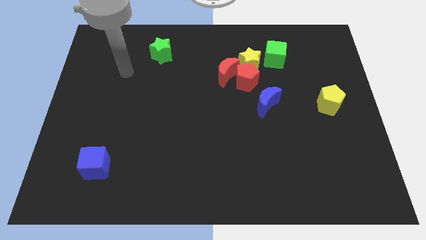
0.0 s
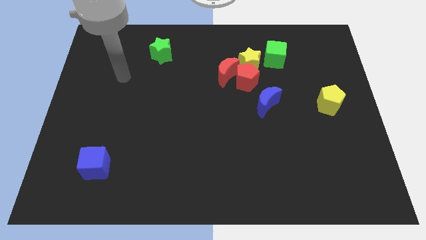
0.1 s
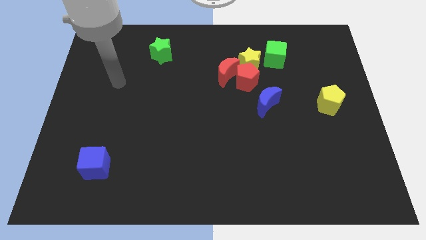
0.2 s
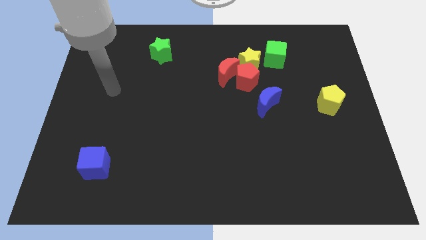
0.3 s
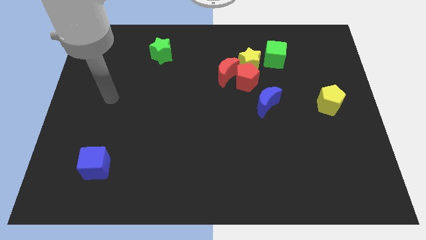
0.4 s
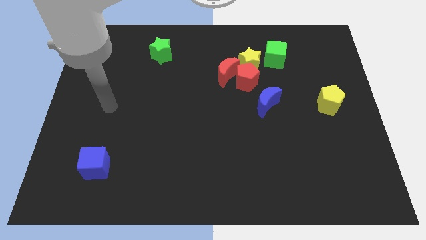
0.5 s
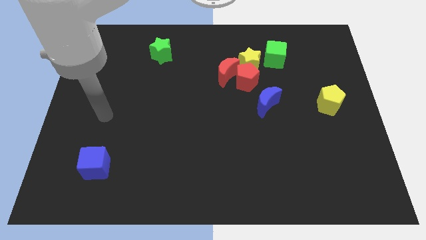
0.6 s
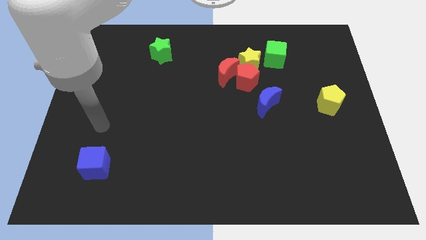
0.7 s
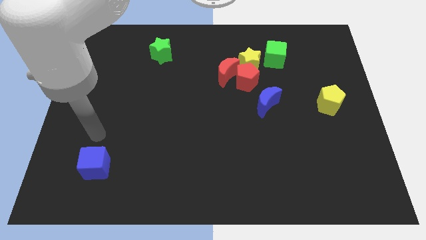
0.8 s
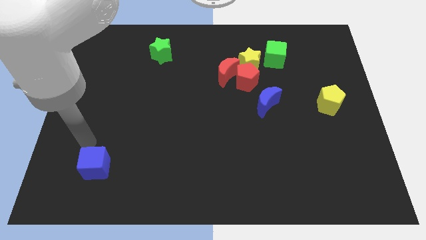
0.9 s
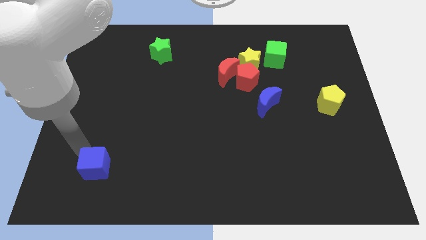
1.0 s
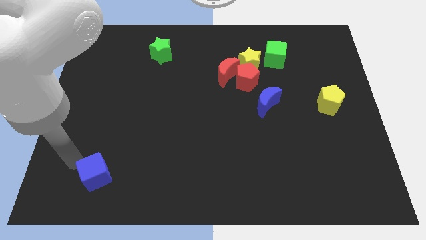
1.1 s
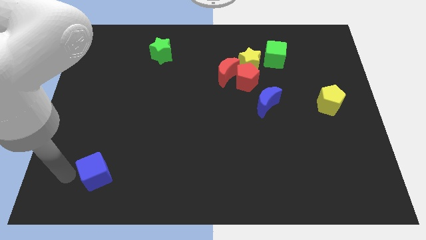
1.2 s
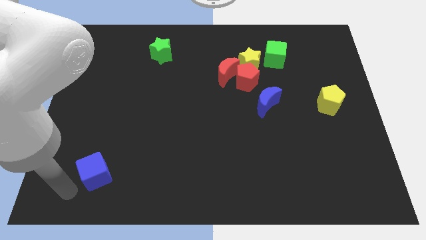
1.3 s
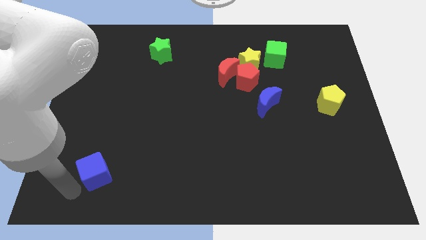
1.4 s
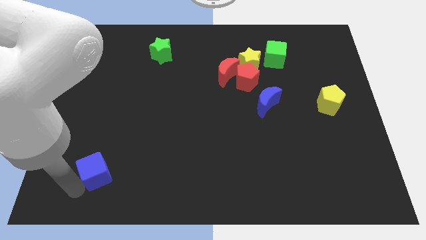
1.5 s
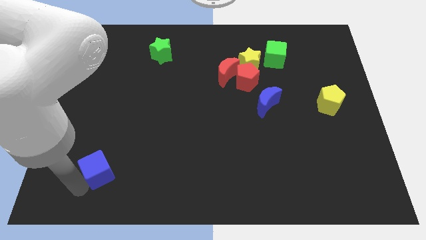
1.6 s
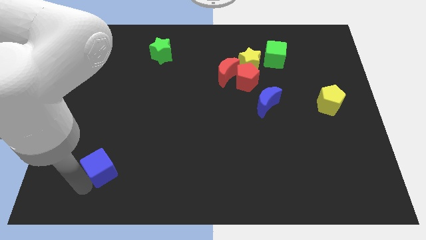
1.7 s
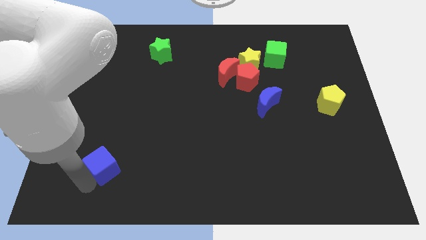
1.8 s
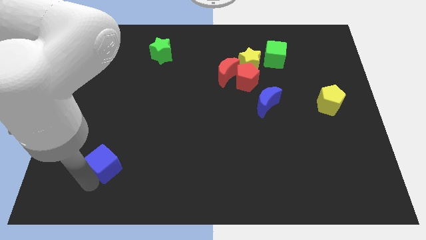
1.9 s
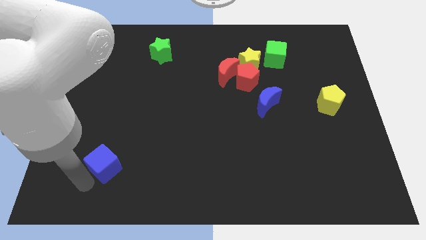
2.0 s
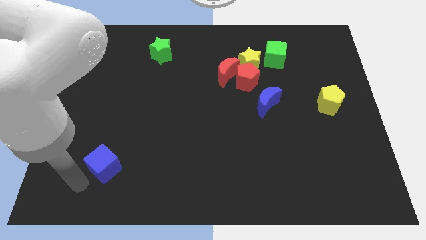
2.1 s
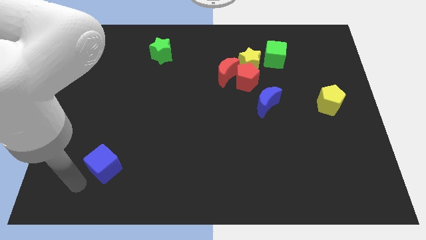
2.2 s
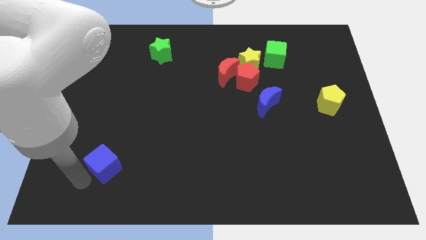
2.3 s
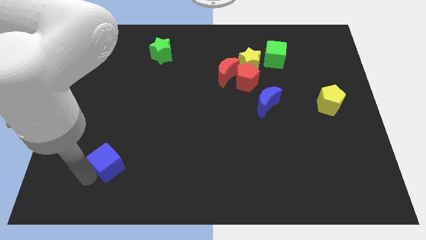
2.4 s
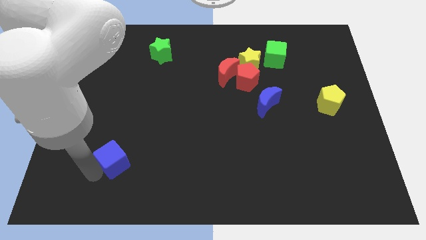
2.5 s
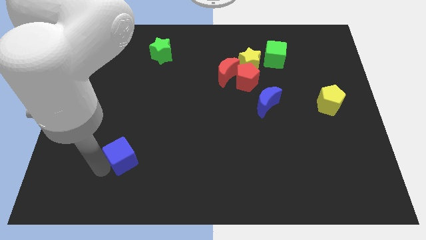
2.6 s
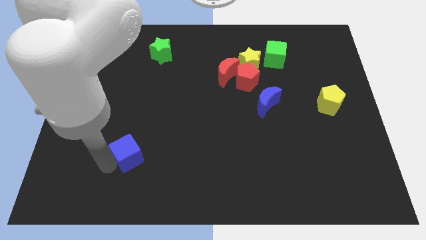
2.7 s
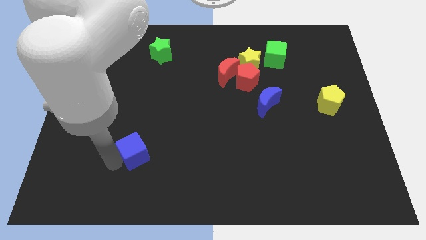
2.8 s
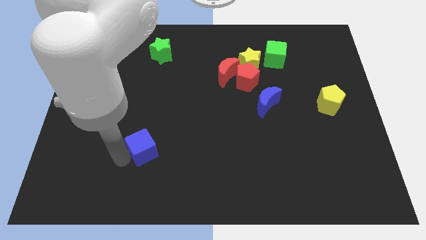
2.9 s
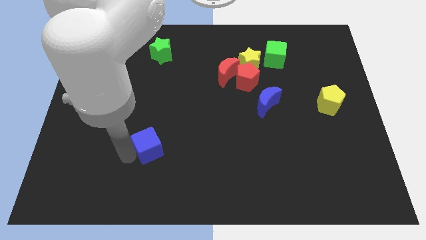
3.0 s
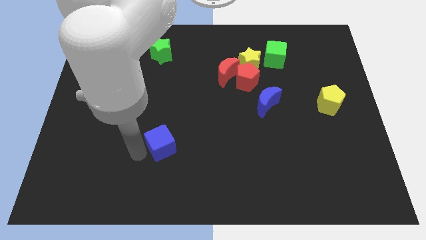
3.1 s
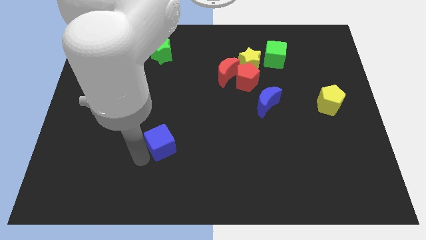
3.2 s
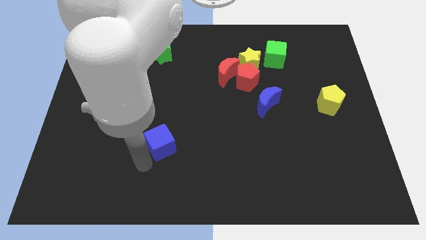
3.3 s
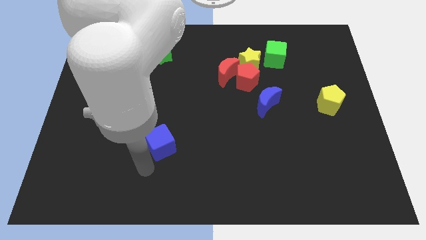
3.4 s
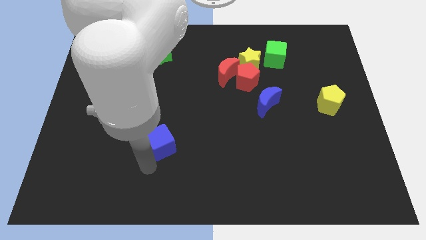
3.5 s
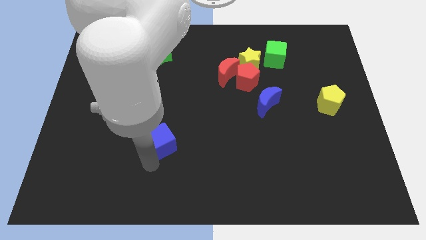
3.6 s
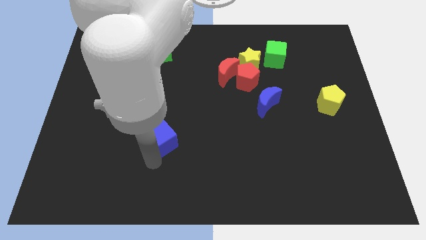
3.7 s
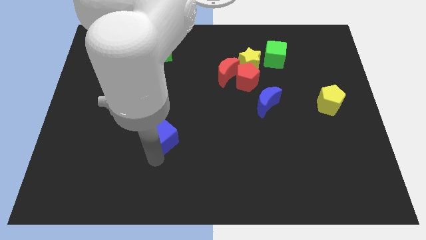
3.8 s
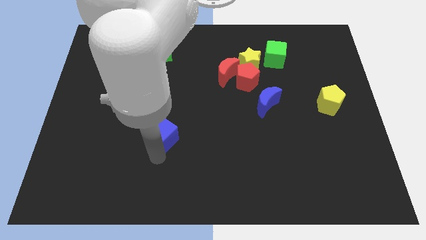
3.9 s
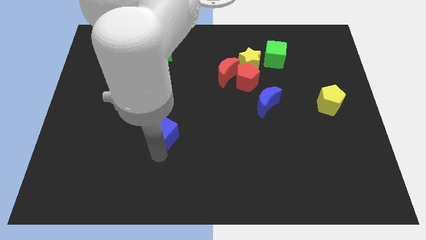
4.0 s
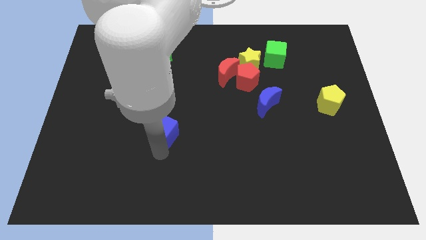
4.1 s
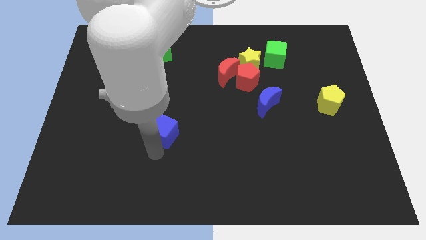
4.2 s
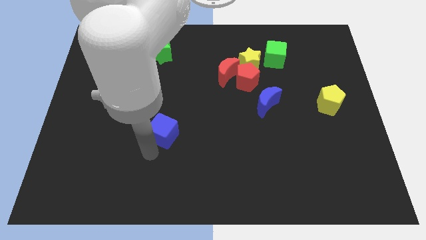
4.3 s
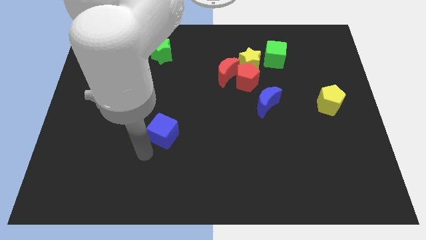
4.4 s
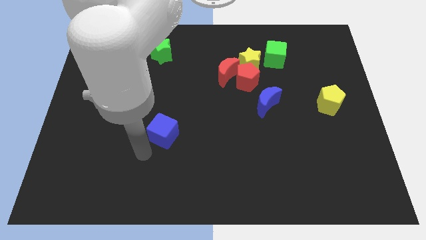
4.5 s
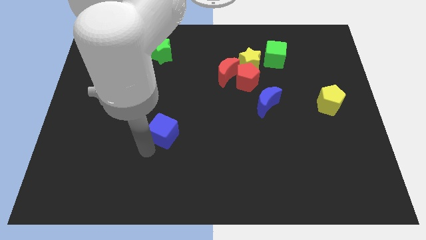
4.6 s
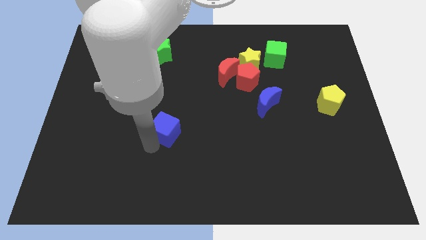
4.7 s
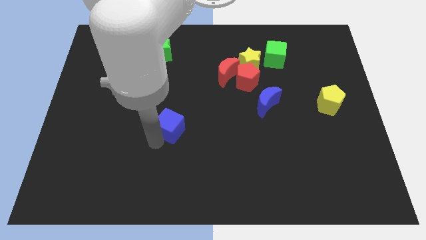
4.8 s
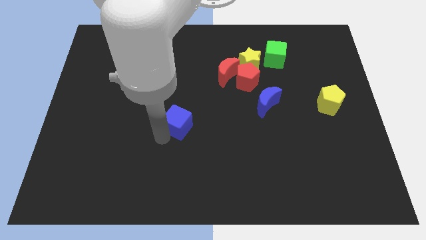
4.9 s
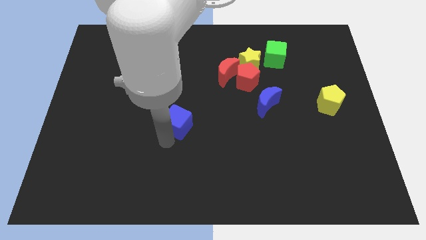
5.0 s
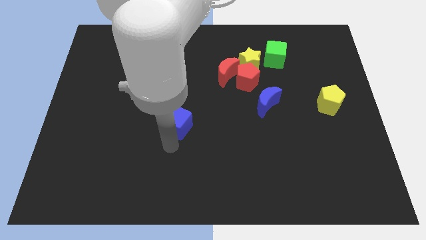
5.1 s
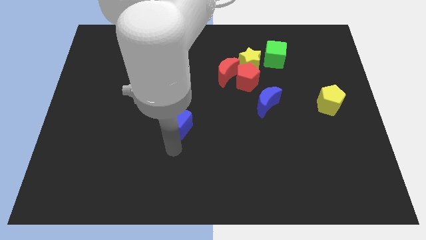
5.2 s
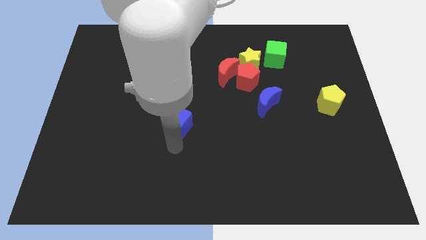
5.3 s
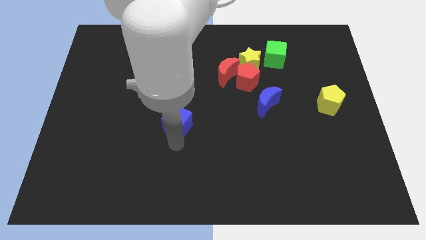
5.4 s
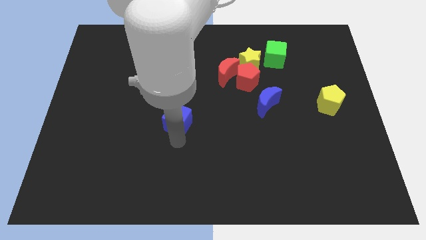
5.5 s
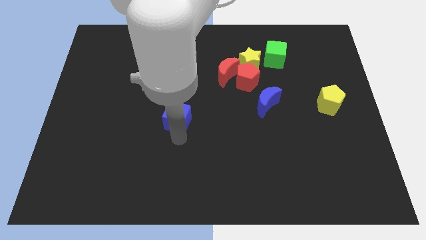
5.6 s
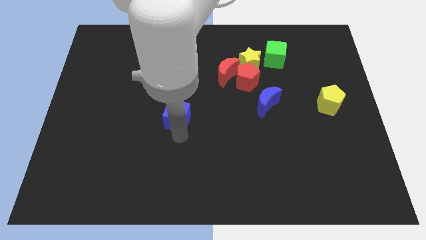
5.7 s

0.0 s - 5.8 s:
push the blue cube upwards and then right

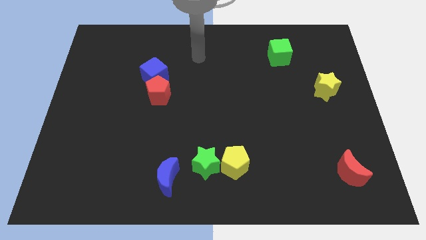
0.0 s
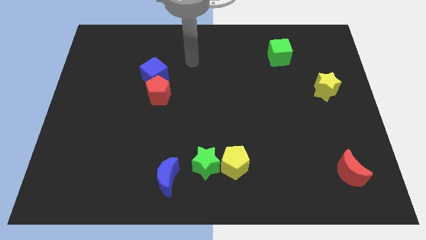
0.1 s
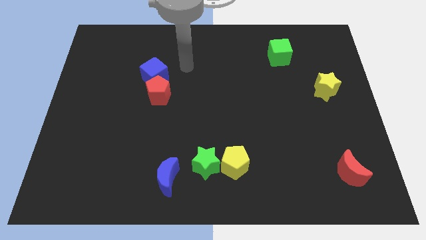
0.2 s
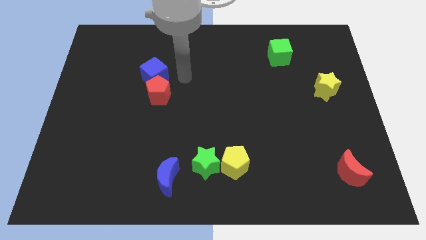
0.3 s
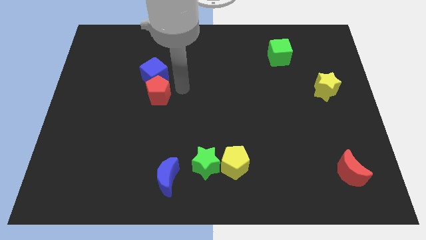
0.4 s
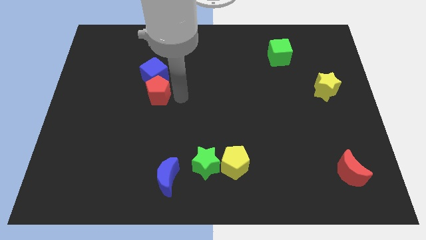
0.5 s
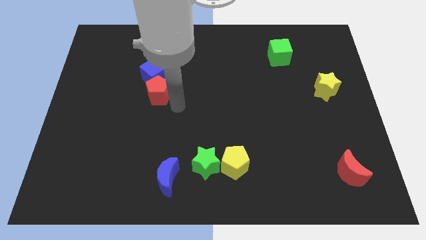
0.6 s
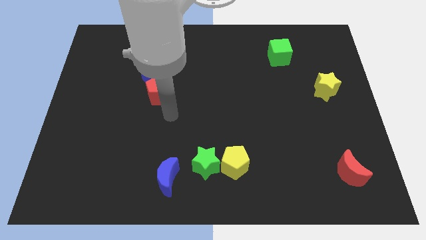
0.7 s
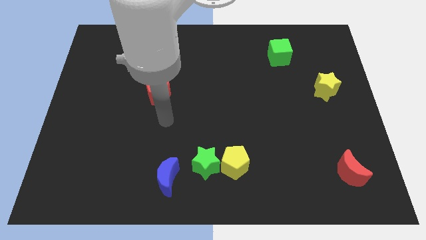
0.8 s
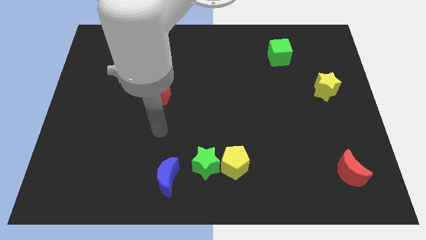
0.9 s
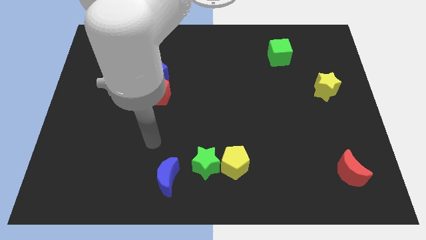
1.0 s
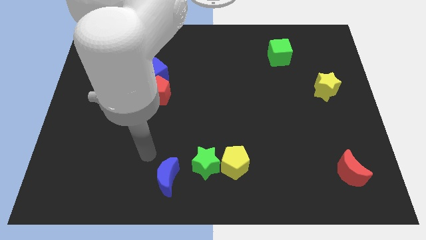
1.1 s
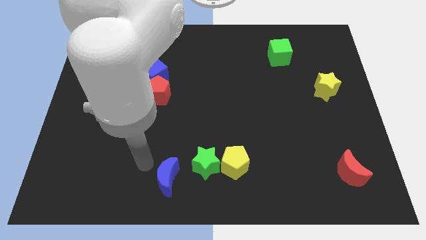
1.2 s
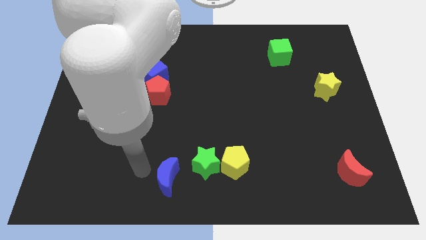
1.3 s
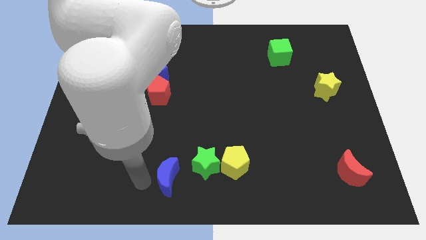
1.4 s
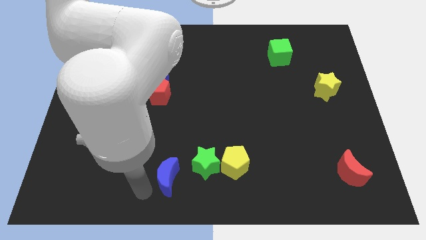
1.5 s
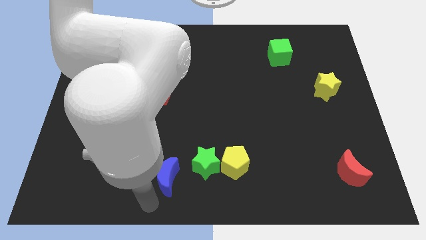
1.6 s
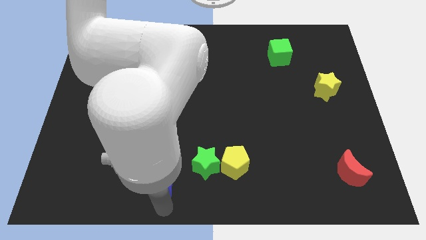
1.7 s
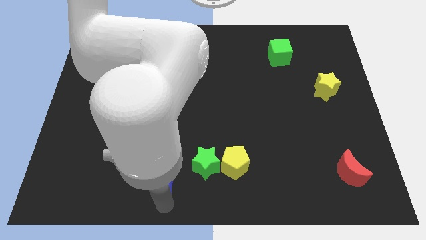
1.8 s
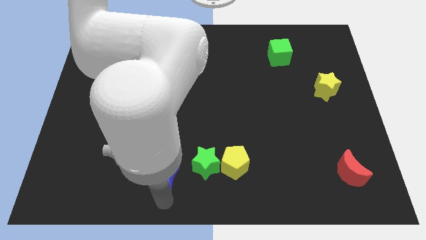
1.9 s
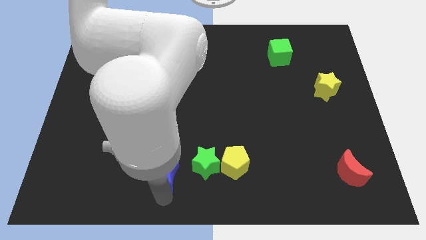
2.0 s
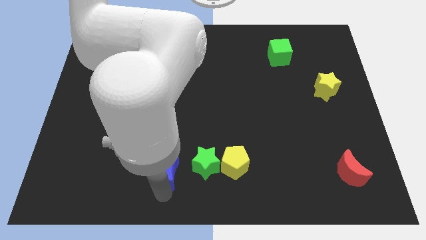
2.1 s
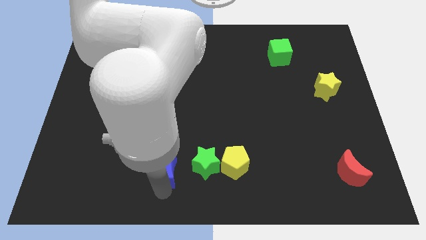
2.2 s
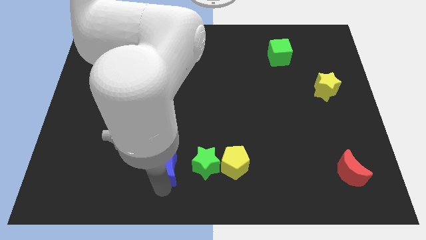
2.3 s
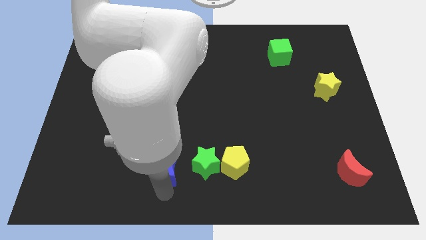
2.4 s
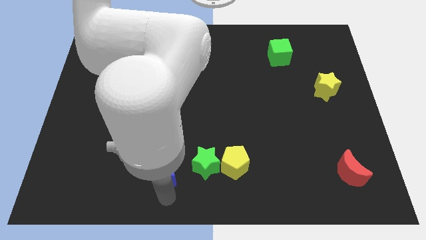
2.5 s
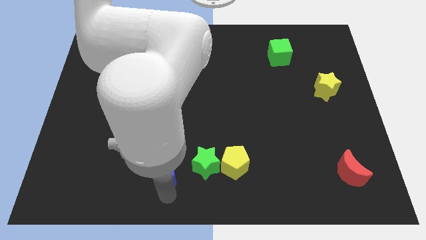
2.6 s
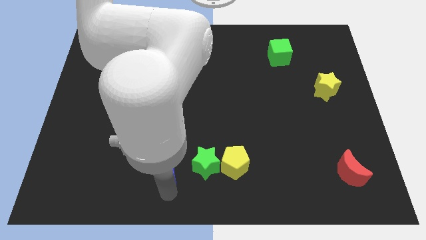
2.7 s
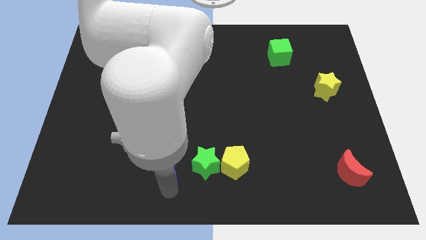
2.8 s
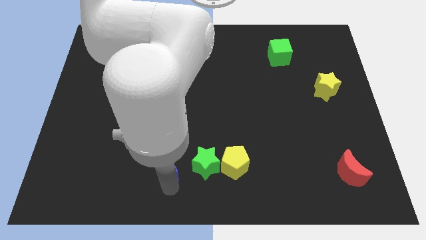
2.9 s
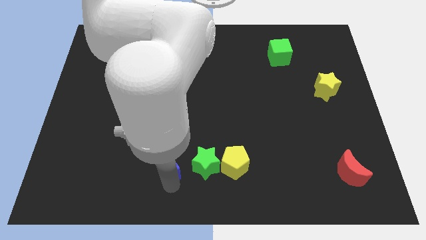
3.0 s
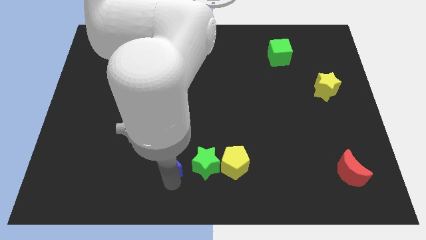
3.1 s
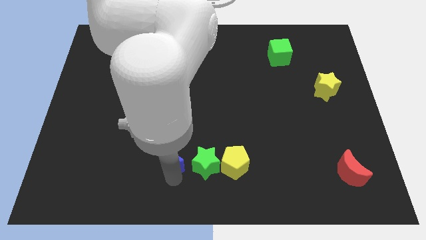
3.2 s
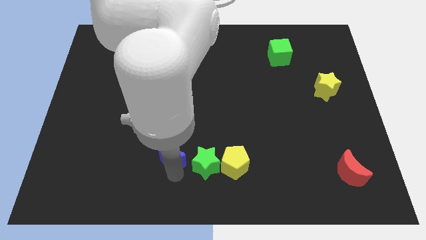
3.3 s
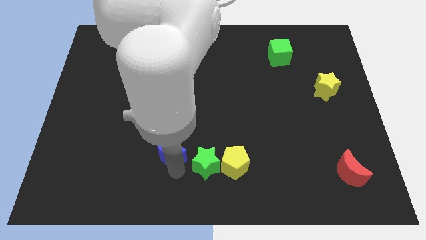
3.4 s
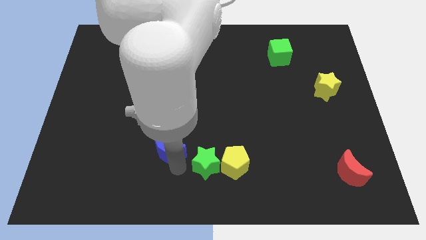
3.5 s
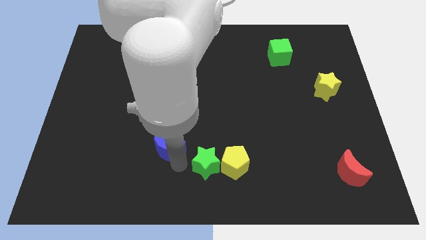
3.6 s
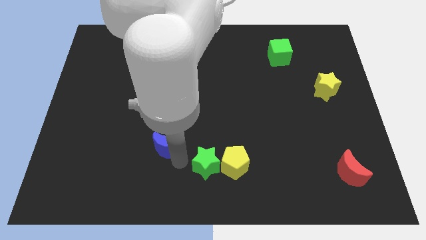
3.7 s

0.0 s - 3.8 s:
move the blue moon slightly upwards
